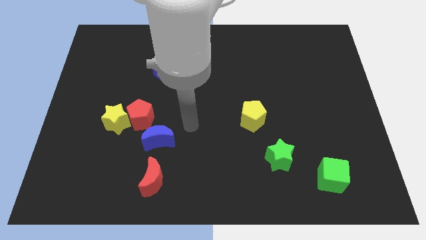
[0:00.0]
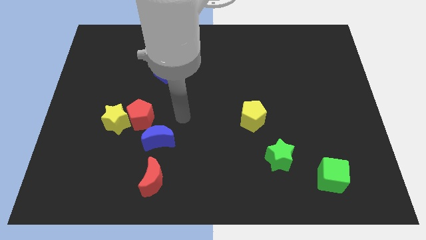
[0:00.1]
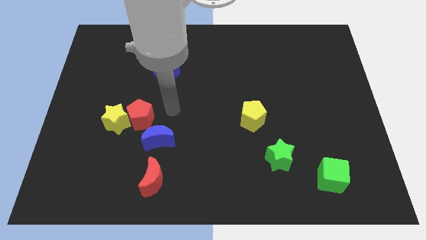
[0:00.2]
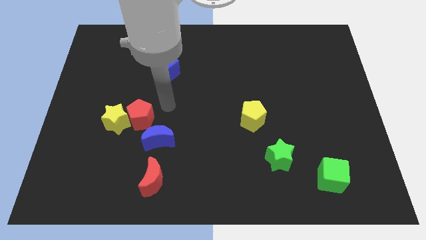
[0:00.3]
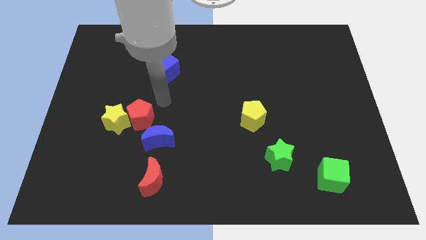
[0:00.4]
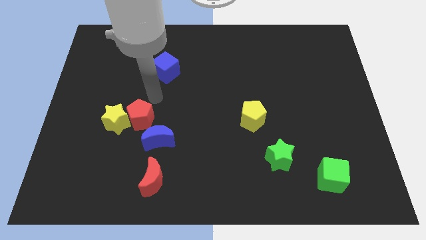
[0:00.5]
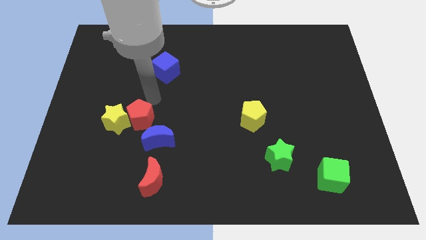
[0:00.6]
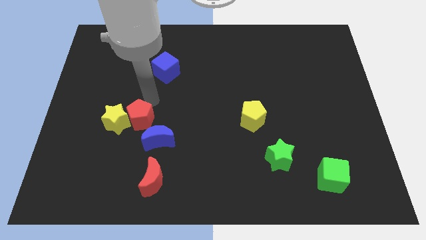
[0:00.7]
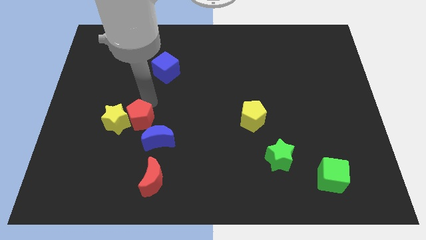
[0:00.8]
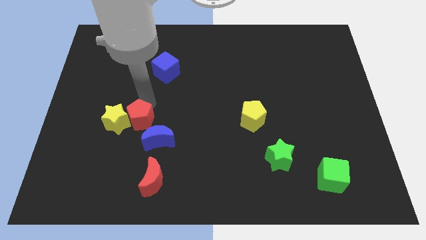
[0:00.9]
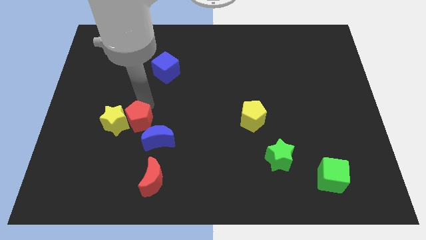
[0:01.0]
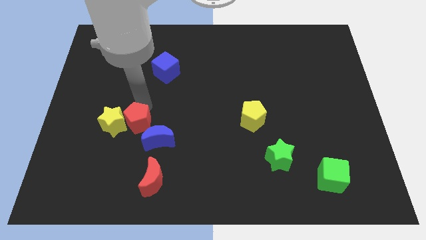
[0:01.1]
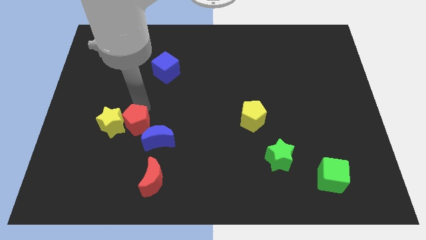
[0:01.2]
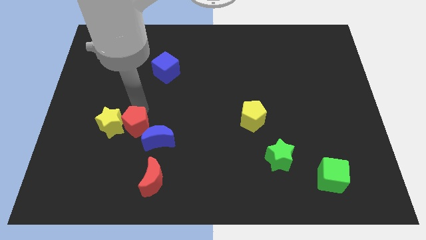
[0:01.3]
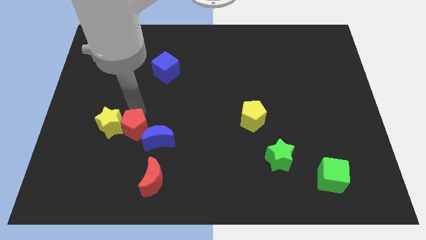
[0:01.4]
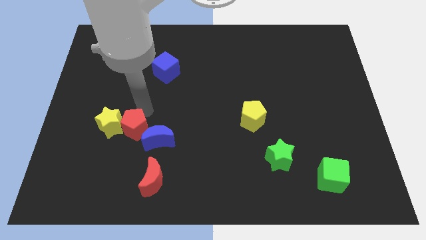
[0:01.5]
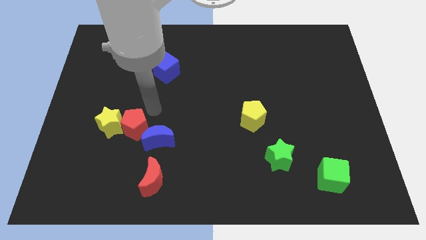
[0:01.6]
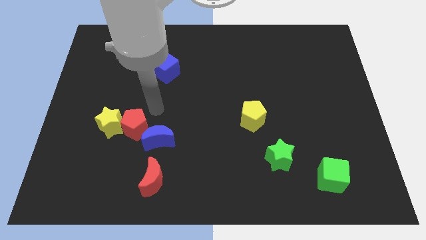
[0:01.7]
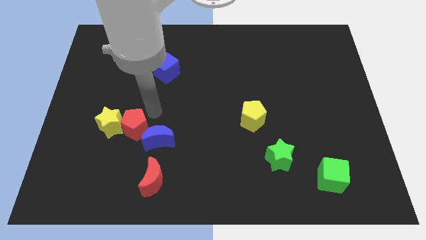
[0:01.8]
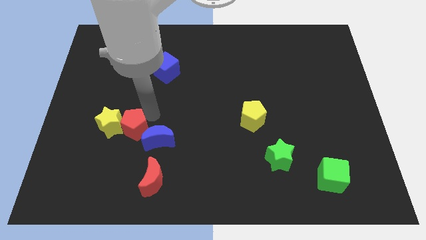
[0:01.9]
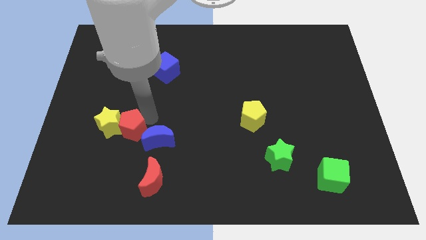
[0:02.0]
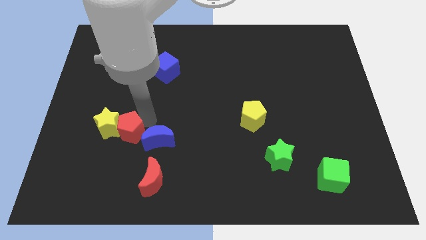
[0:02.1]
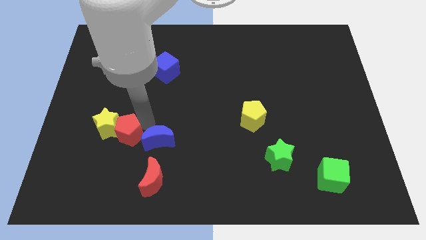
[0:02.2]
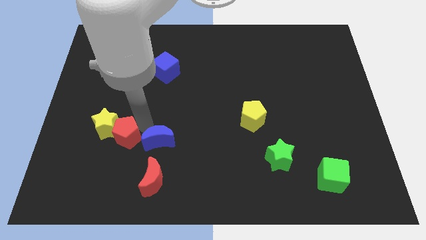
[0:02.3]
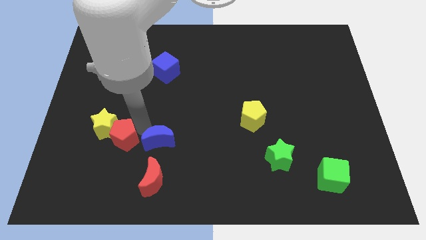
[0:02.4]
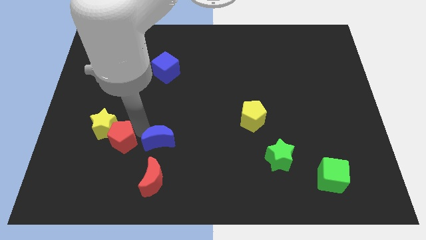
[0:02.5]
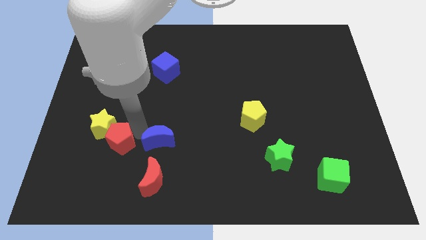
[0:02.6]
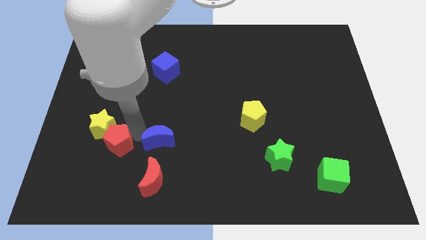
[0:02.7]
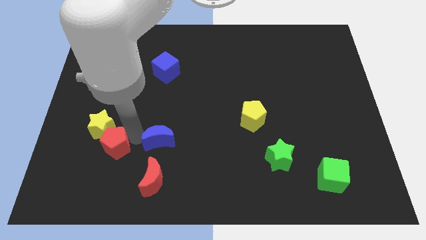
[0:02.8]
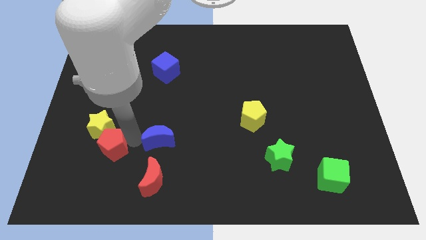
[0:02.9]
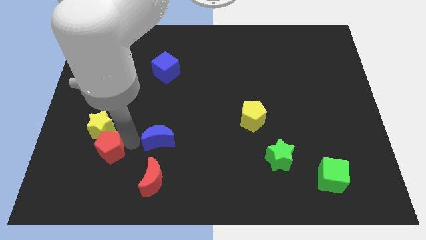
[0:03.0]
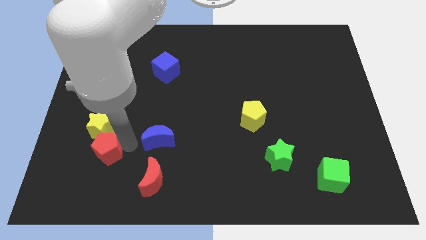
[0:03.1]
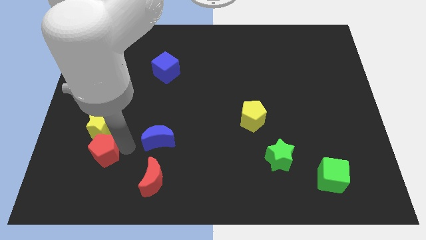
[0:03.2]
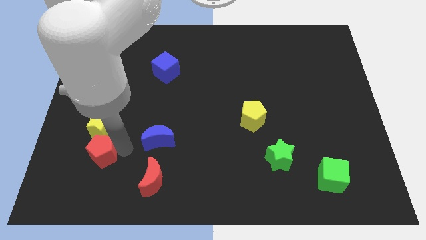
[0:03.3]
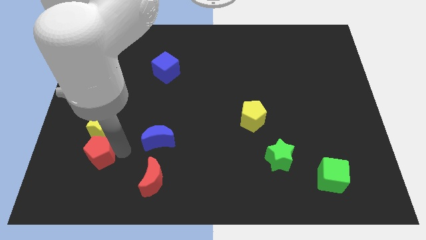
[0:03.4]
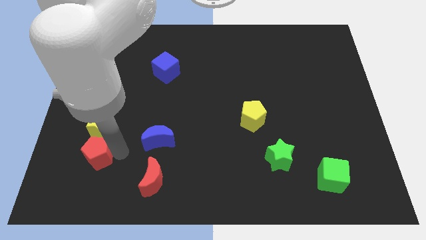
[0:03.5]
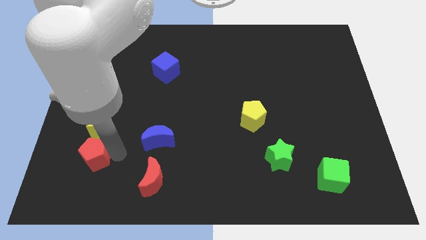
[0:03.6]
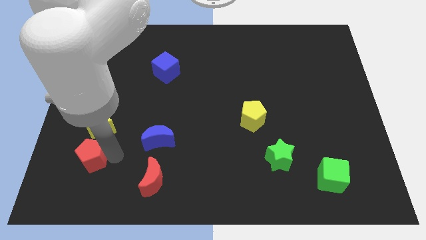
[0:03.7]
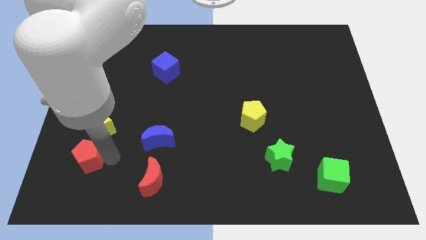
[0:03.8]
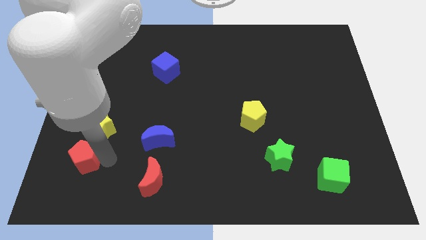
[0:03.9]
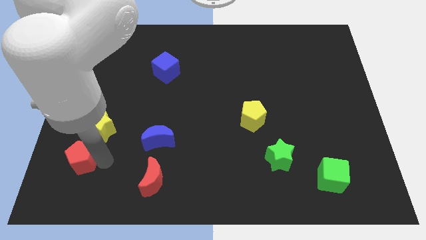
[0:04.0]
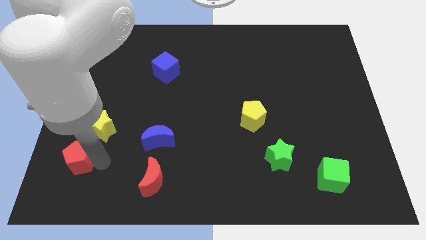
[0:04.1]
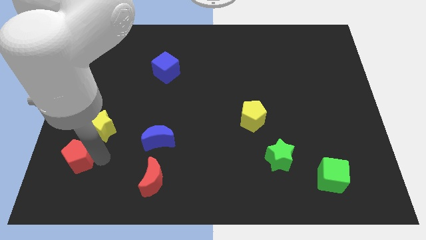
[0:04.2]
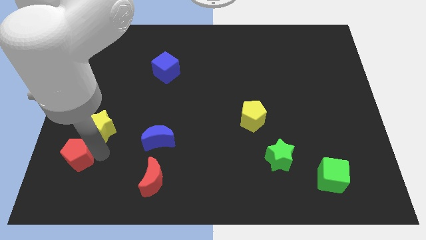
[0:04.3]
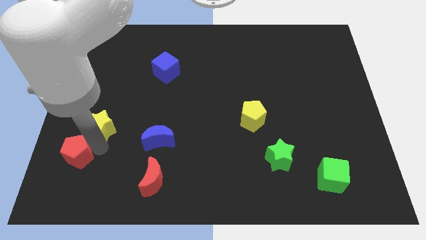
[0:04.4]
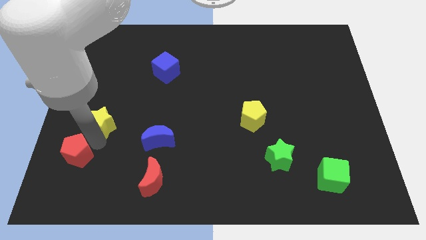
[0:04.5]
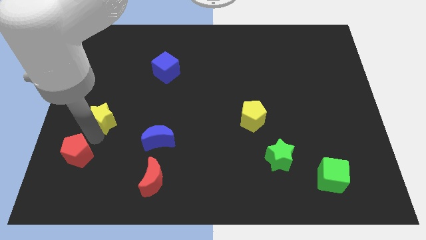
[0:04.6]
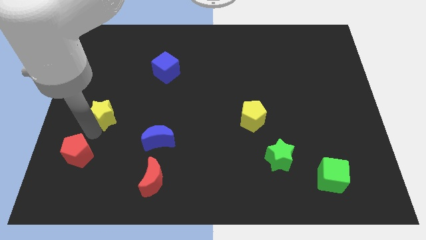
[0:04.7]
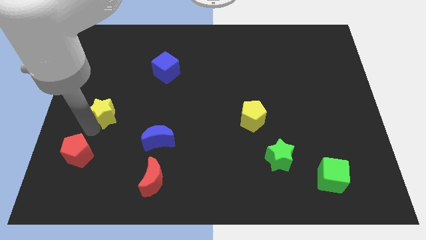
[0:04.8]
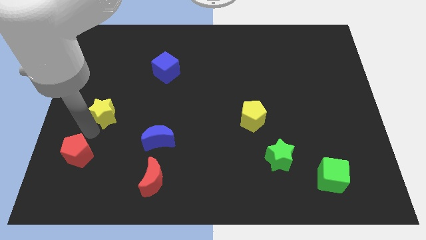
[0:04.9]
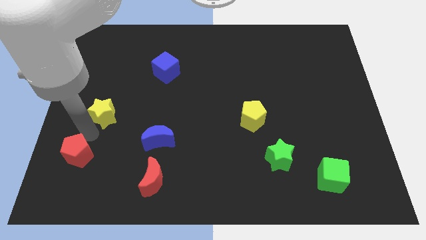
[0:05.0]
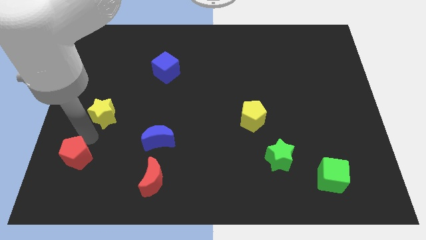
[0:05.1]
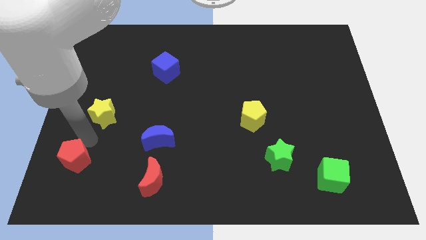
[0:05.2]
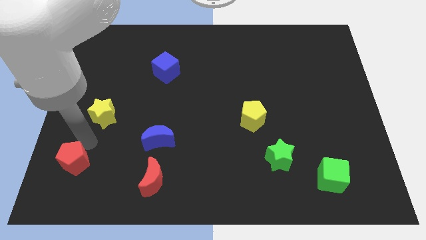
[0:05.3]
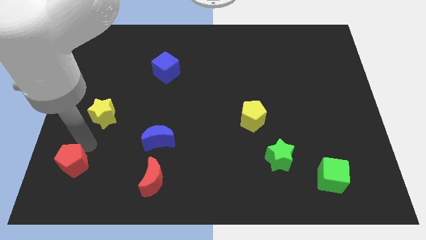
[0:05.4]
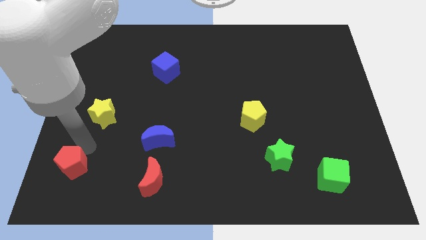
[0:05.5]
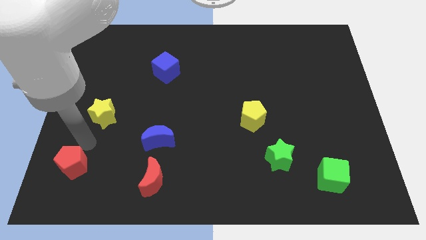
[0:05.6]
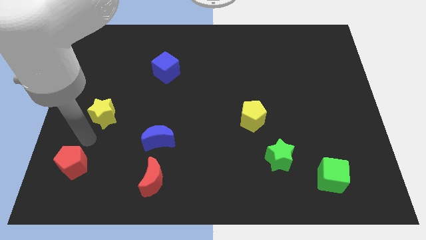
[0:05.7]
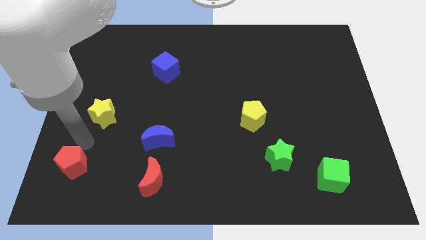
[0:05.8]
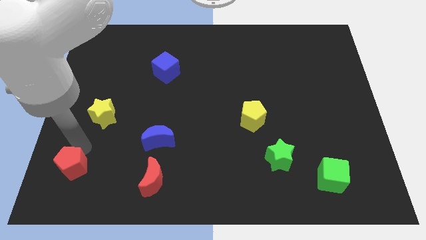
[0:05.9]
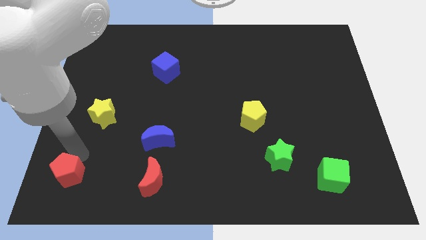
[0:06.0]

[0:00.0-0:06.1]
push the red pentagon to the lower left corner

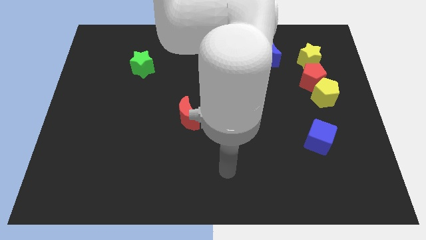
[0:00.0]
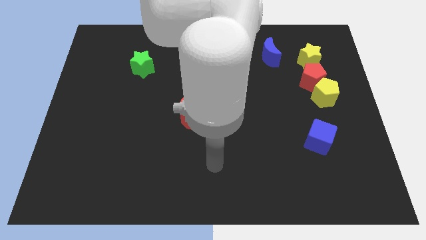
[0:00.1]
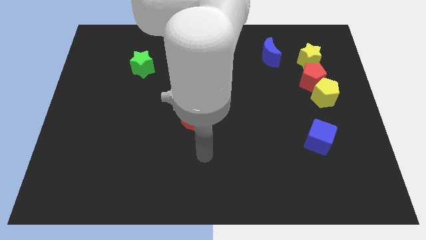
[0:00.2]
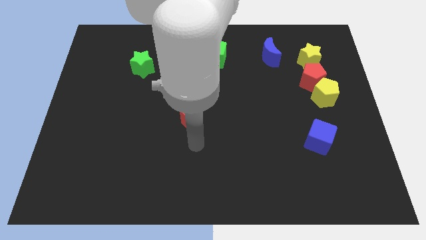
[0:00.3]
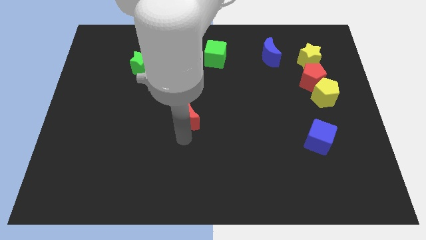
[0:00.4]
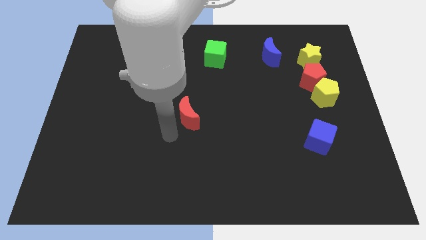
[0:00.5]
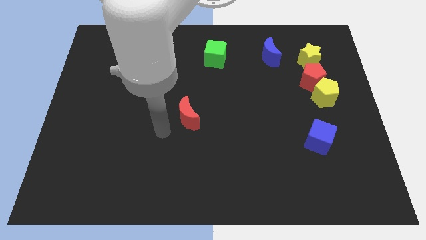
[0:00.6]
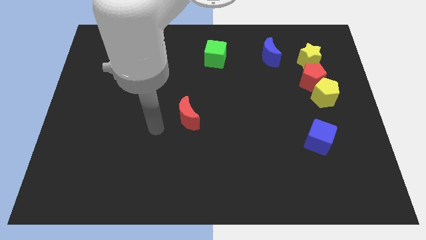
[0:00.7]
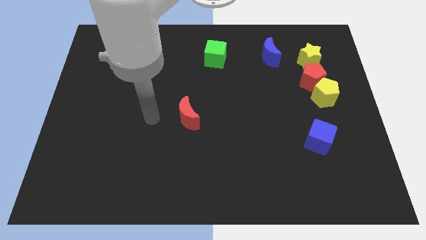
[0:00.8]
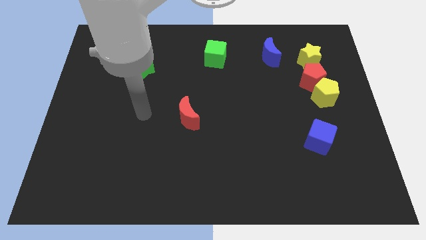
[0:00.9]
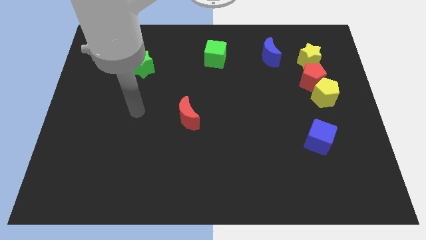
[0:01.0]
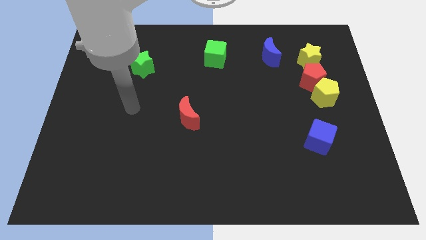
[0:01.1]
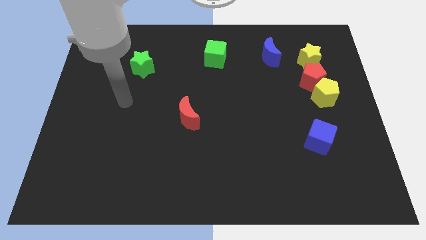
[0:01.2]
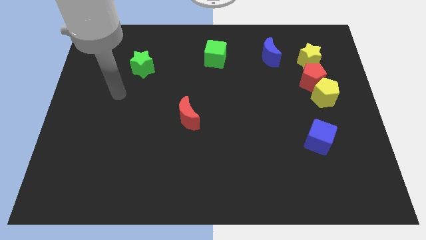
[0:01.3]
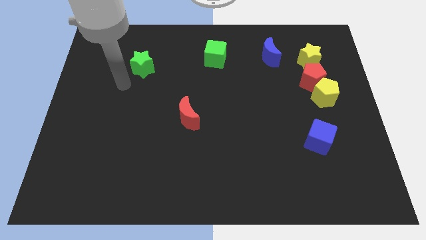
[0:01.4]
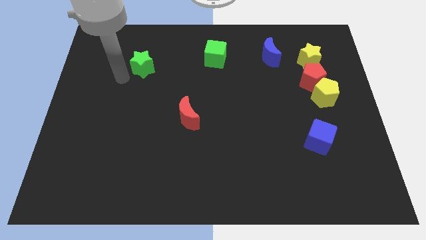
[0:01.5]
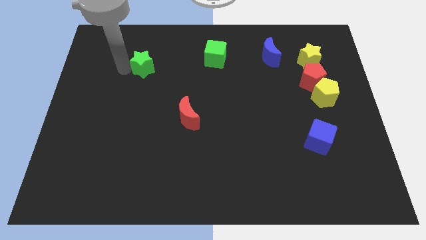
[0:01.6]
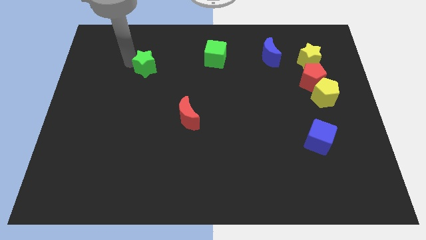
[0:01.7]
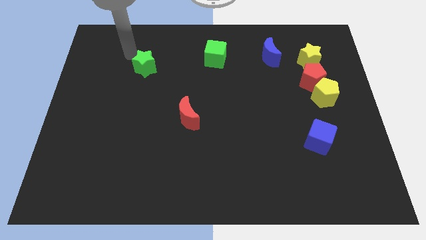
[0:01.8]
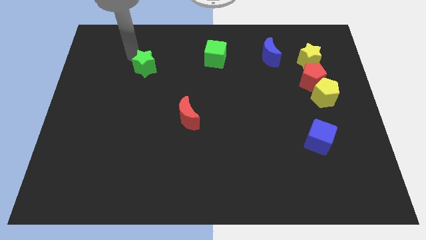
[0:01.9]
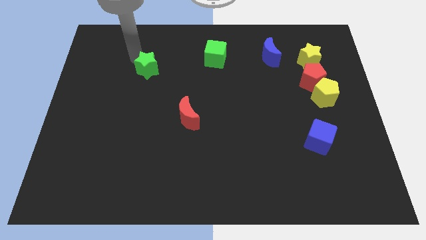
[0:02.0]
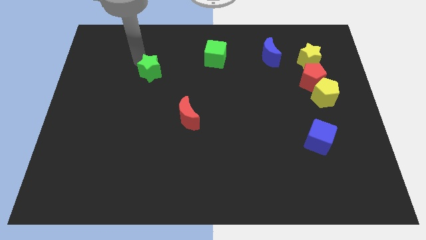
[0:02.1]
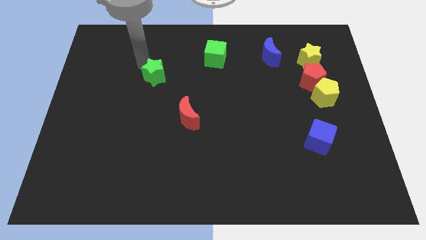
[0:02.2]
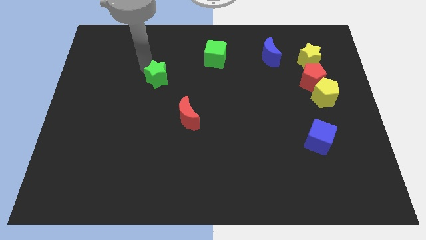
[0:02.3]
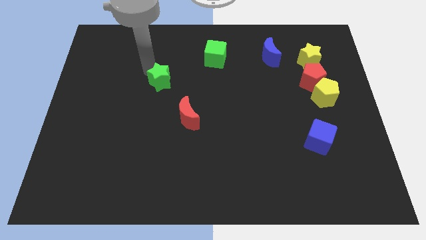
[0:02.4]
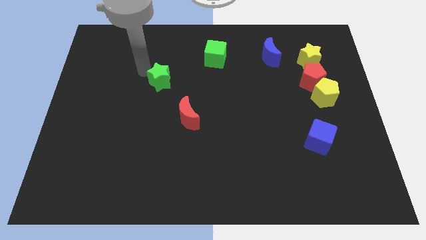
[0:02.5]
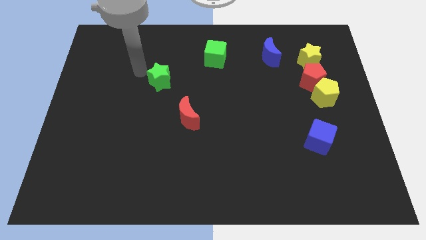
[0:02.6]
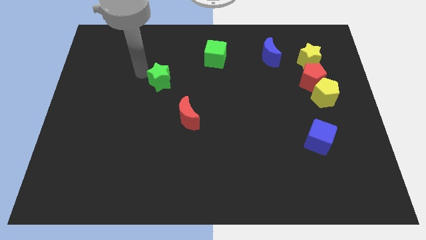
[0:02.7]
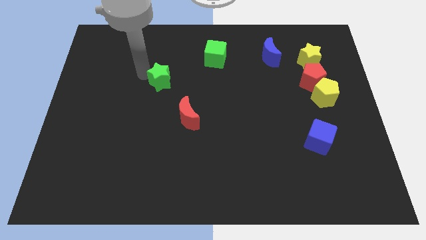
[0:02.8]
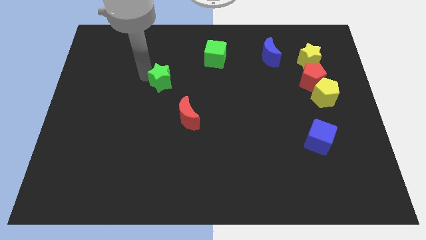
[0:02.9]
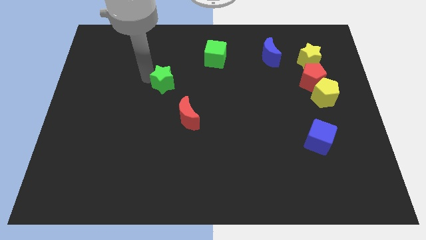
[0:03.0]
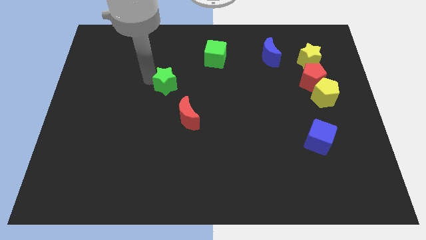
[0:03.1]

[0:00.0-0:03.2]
put the green star to the center
